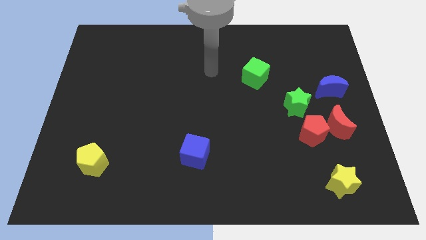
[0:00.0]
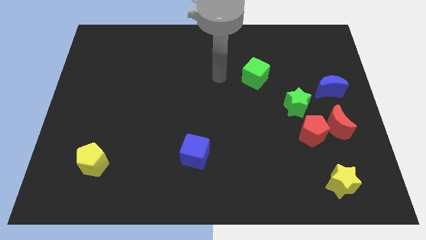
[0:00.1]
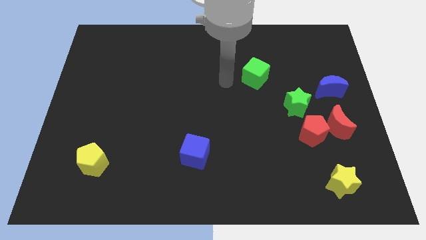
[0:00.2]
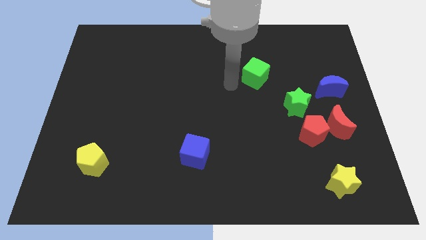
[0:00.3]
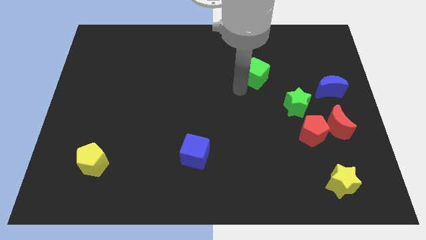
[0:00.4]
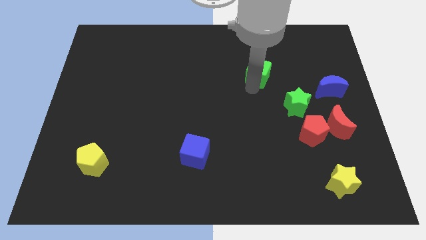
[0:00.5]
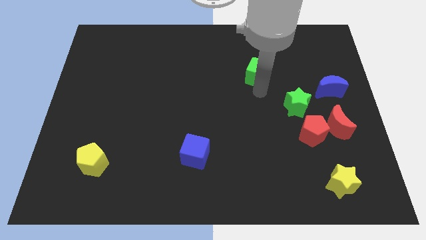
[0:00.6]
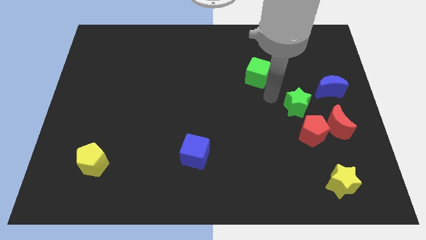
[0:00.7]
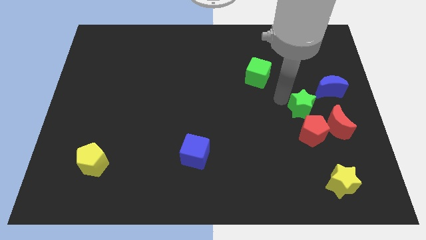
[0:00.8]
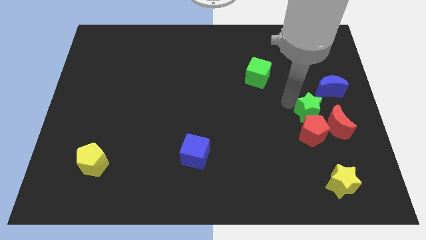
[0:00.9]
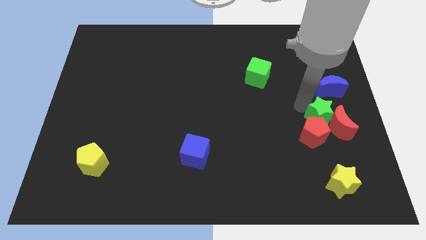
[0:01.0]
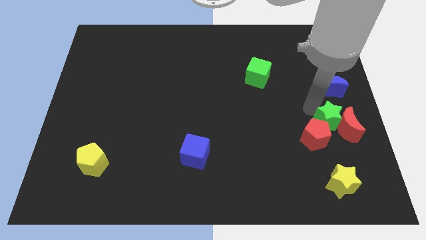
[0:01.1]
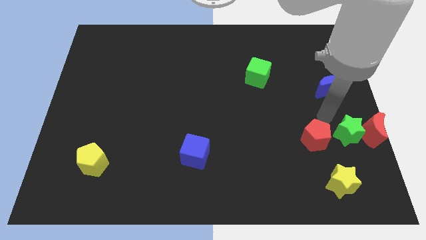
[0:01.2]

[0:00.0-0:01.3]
pull the red pentagon apart from the red moon and green star

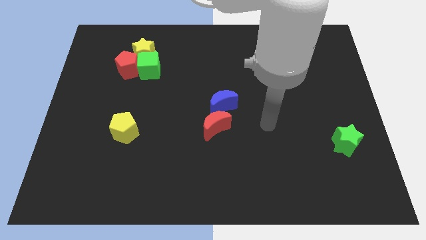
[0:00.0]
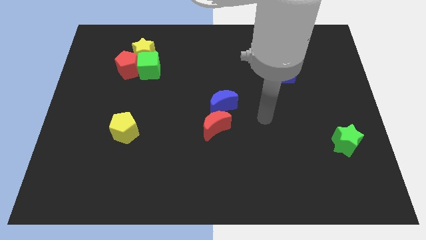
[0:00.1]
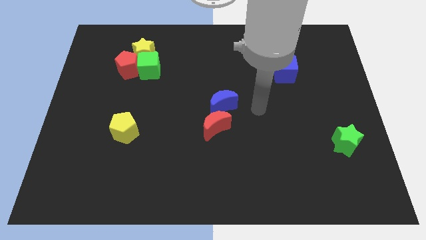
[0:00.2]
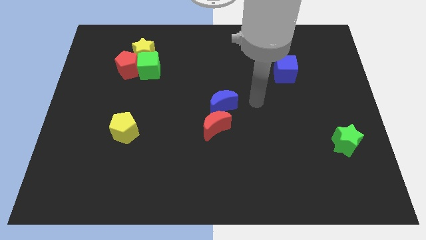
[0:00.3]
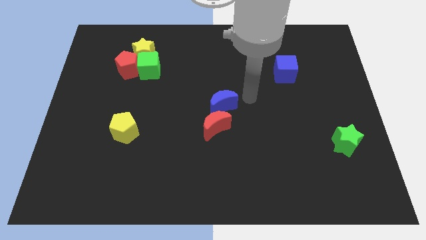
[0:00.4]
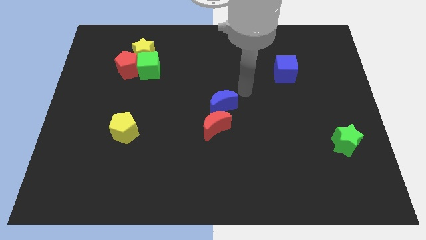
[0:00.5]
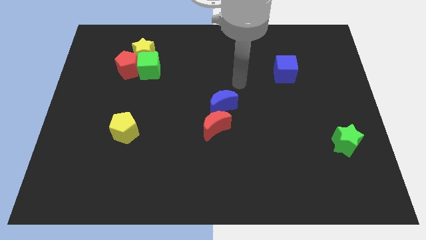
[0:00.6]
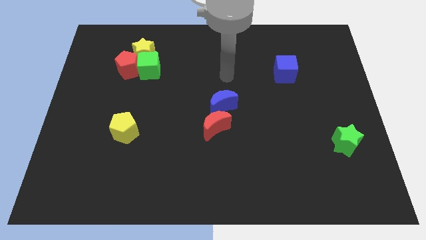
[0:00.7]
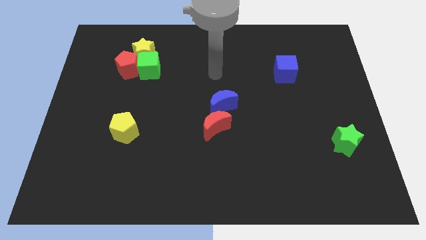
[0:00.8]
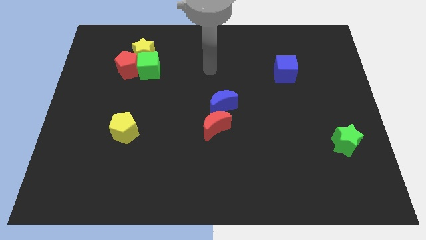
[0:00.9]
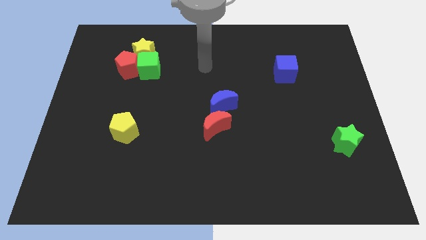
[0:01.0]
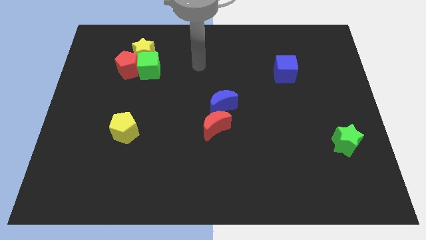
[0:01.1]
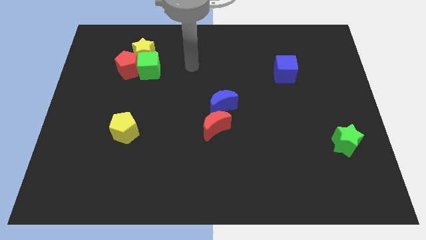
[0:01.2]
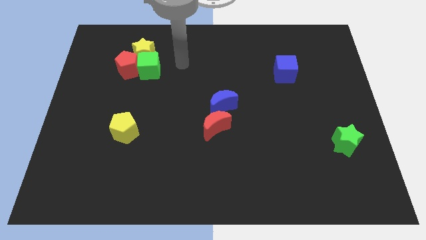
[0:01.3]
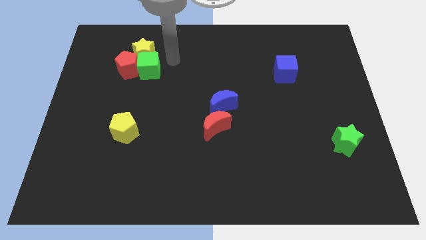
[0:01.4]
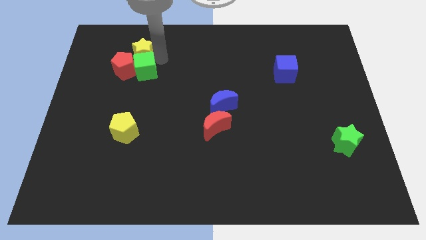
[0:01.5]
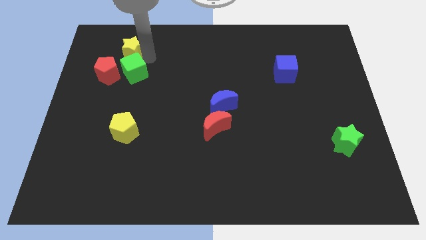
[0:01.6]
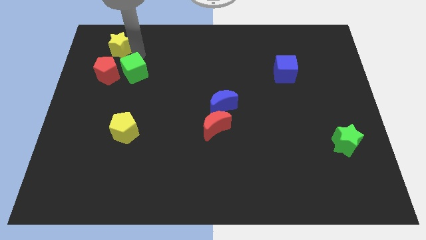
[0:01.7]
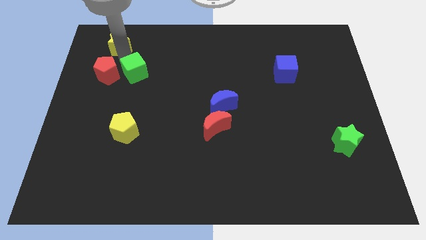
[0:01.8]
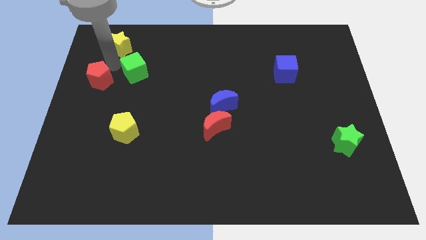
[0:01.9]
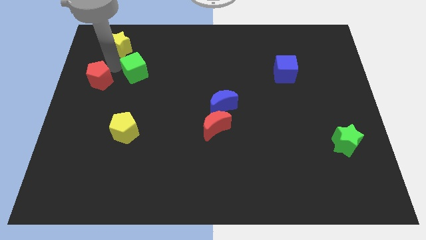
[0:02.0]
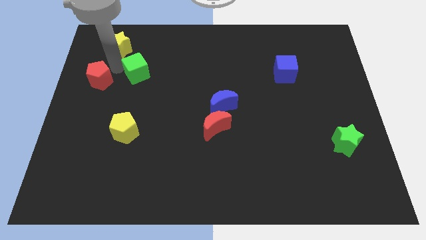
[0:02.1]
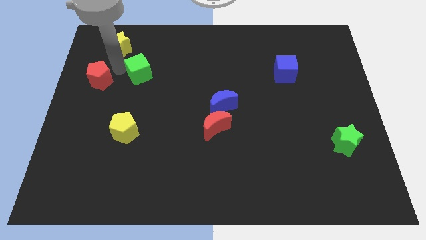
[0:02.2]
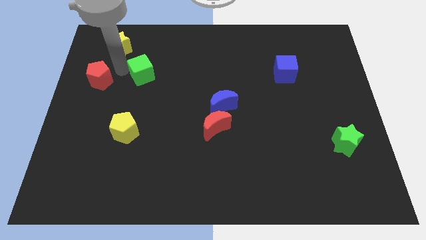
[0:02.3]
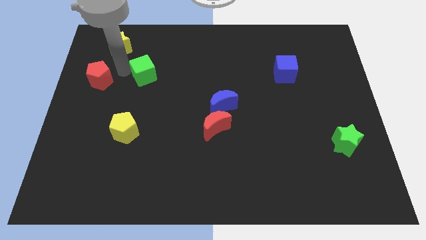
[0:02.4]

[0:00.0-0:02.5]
pull the green cube apart from the red pentagon and yellow star

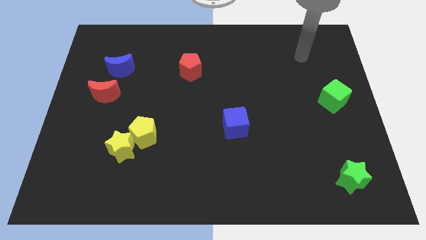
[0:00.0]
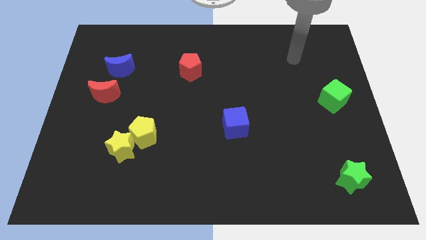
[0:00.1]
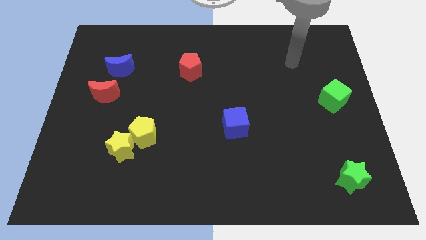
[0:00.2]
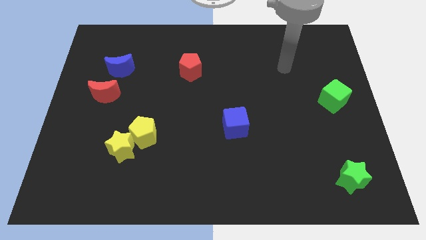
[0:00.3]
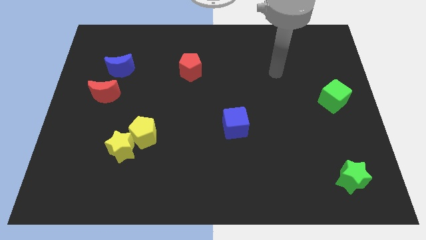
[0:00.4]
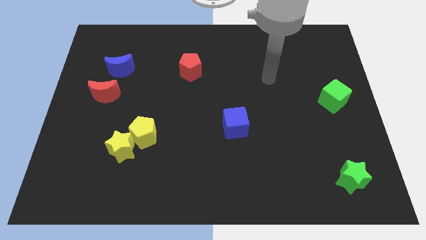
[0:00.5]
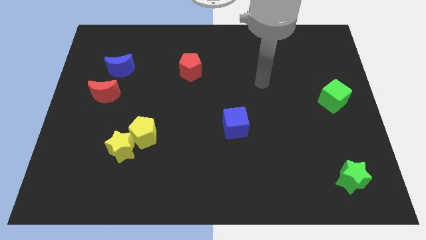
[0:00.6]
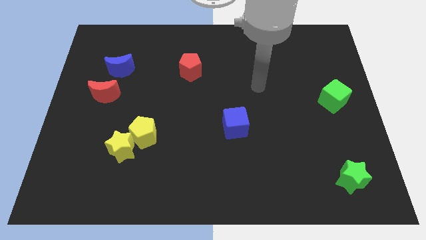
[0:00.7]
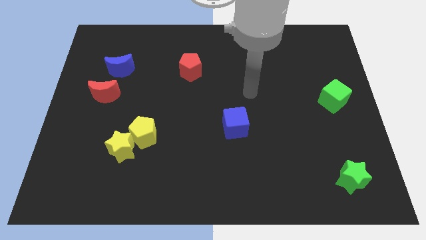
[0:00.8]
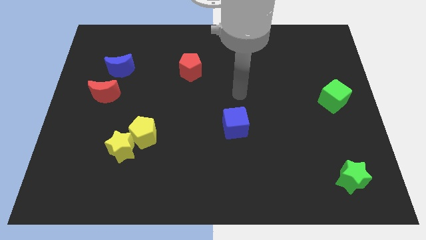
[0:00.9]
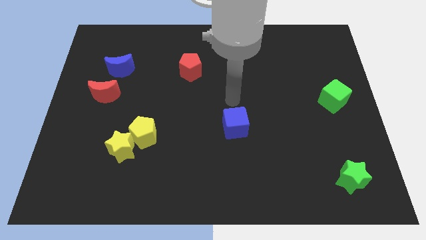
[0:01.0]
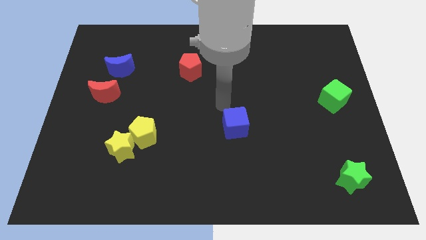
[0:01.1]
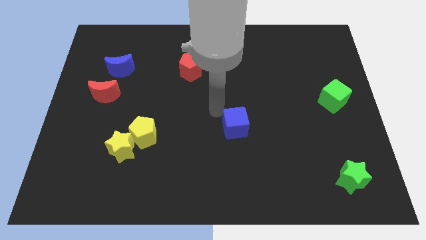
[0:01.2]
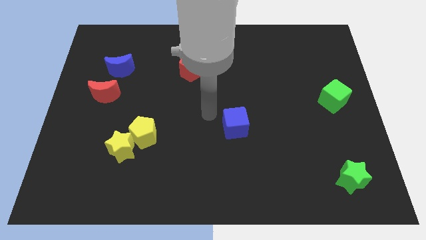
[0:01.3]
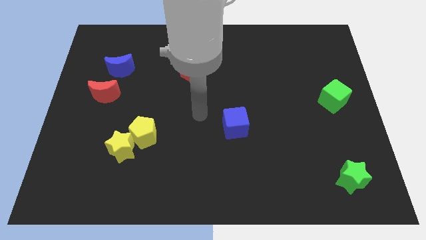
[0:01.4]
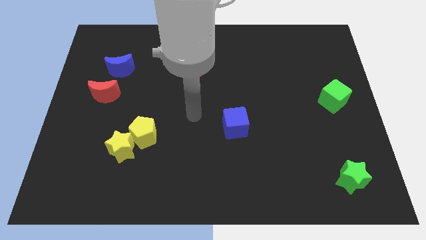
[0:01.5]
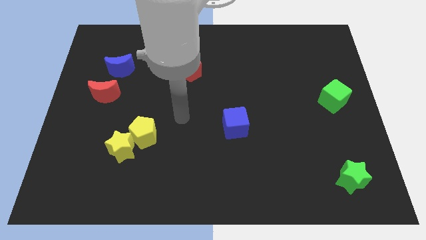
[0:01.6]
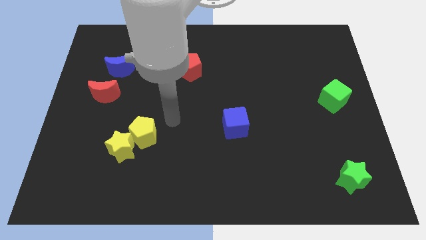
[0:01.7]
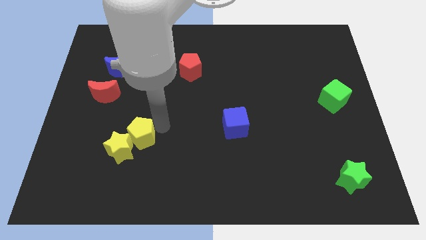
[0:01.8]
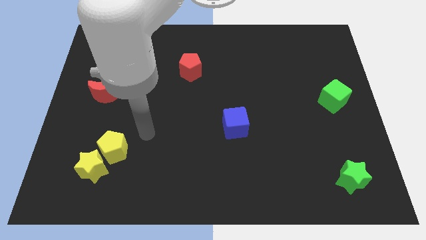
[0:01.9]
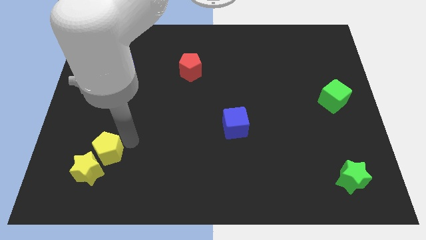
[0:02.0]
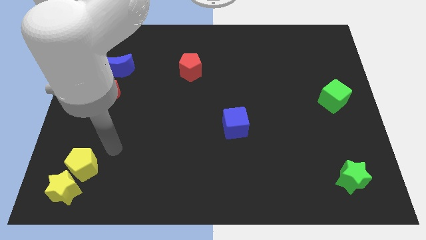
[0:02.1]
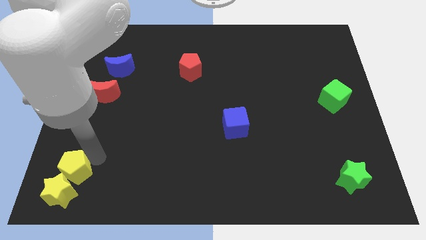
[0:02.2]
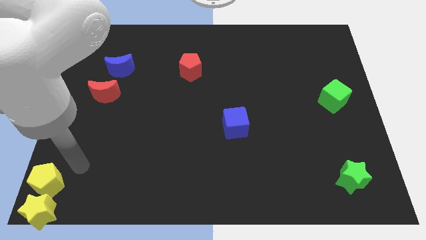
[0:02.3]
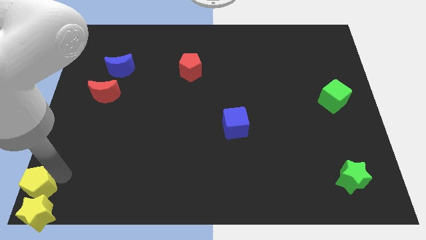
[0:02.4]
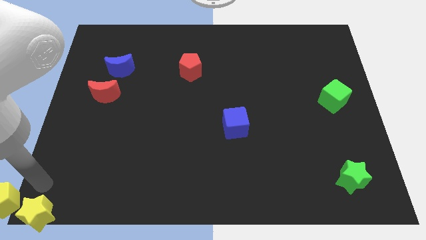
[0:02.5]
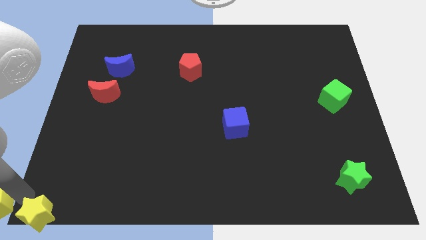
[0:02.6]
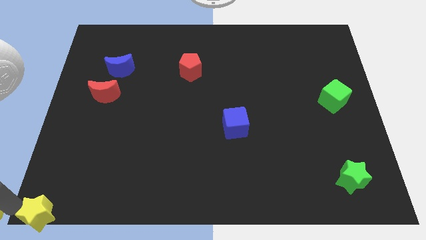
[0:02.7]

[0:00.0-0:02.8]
separate the yellow star from the yellow pentagon

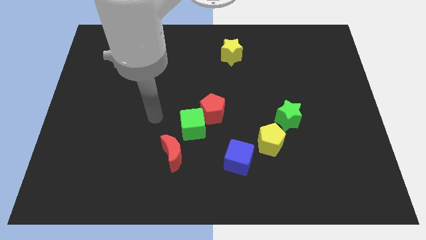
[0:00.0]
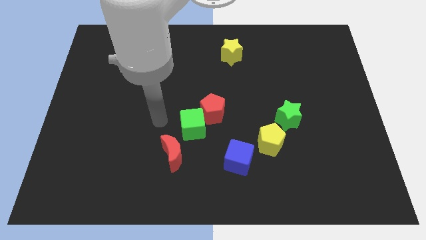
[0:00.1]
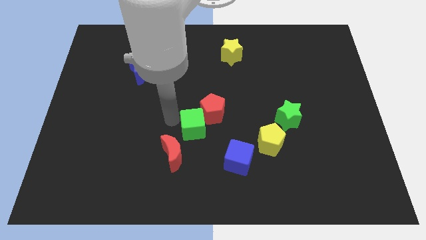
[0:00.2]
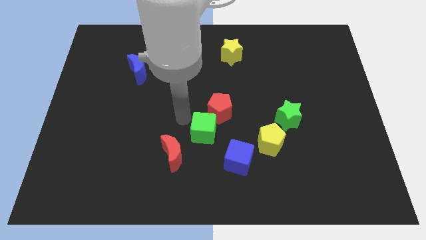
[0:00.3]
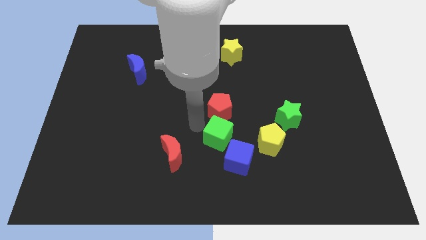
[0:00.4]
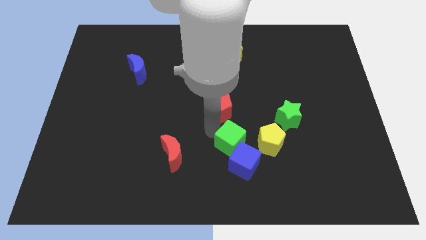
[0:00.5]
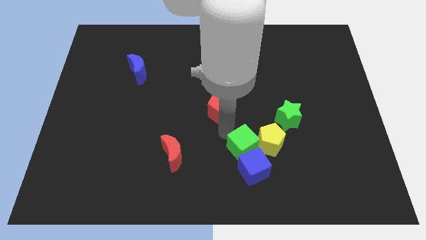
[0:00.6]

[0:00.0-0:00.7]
move the red pentagon away from the green cube

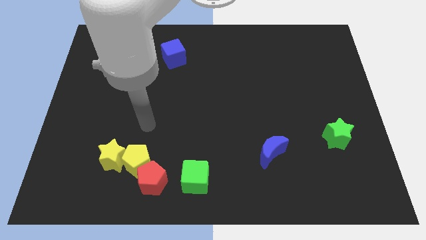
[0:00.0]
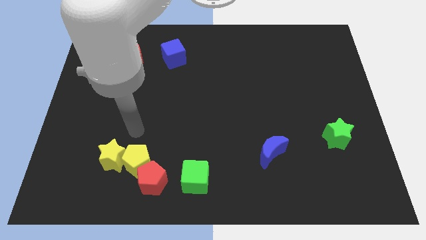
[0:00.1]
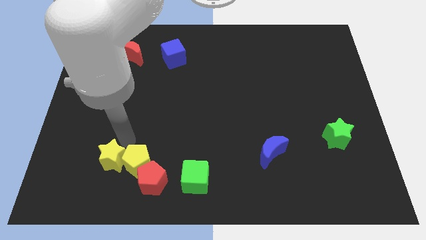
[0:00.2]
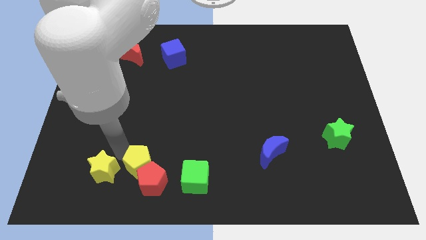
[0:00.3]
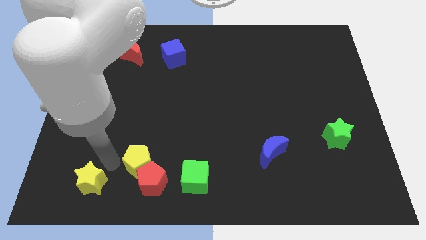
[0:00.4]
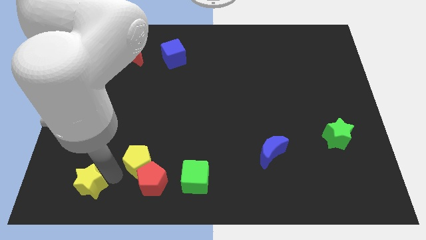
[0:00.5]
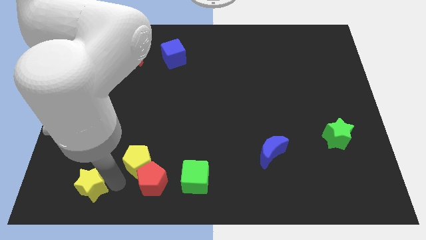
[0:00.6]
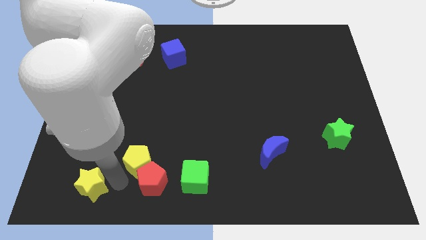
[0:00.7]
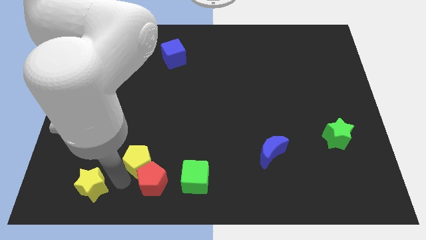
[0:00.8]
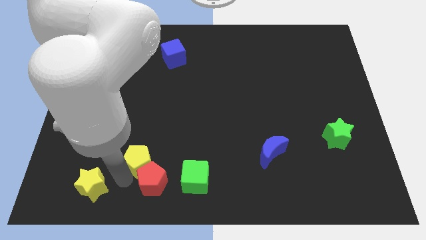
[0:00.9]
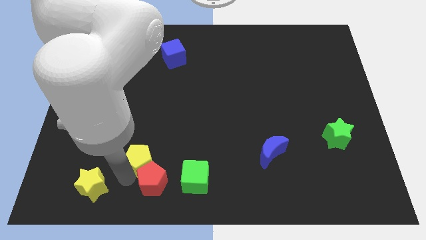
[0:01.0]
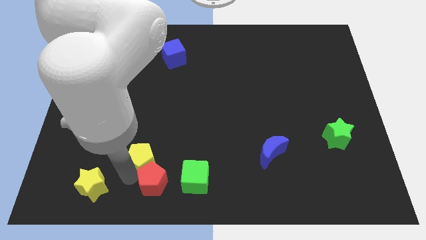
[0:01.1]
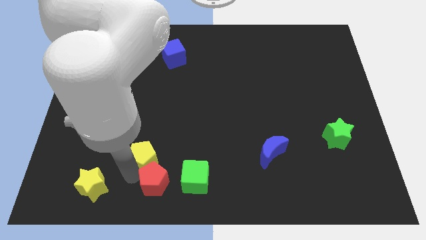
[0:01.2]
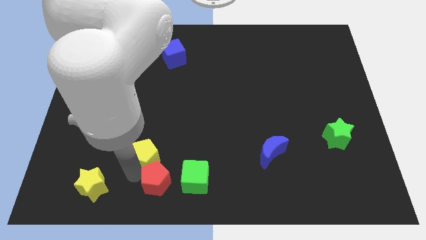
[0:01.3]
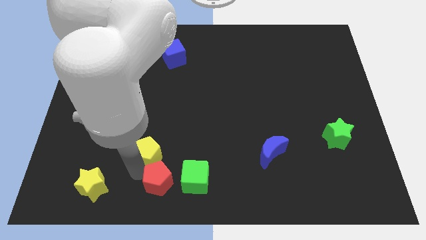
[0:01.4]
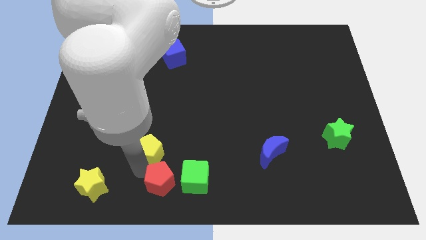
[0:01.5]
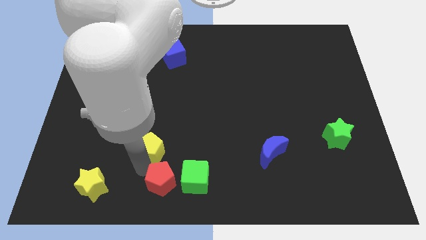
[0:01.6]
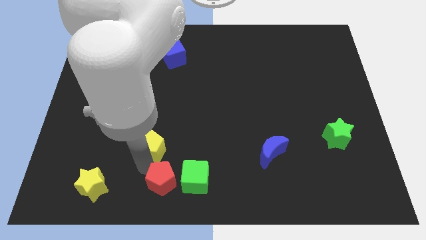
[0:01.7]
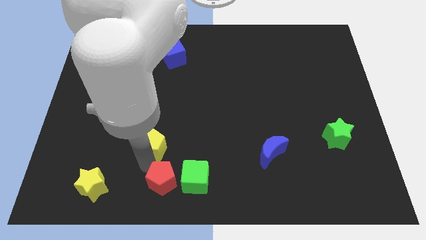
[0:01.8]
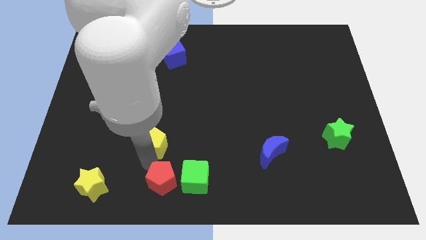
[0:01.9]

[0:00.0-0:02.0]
pull the yellow pentagon apart from the red pentagon and yellow star

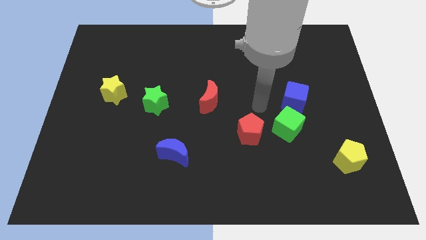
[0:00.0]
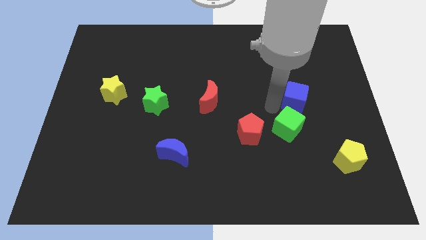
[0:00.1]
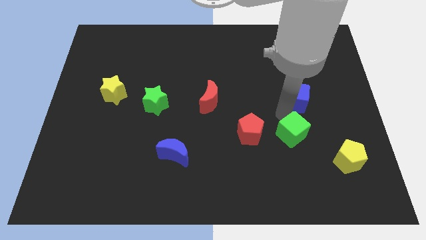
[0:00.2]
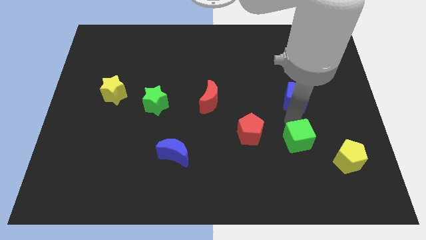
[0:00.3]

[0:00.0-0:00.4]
pull the blue cube apart from the green cube
